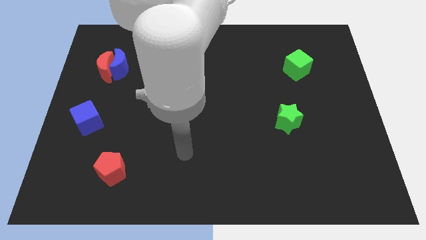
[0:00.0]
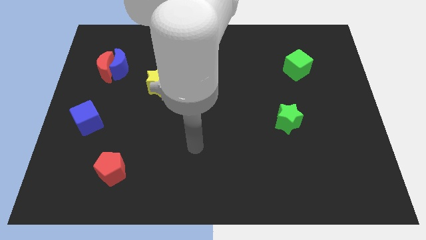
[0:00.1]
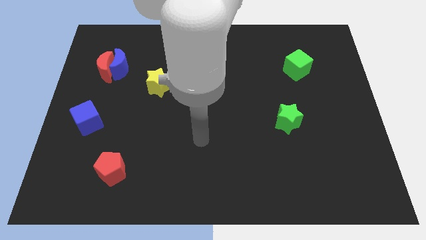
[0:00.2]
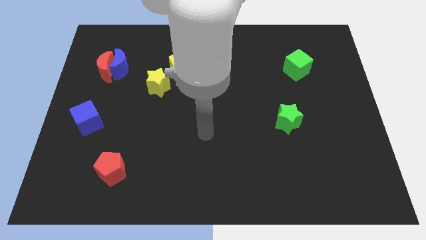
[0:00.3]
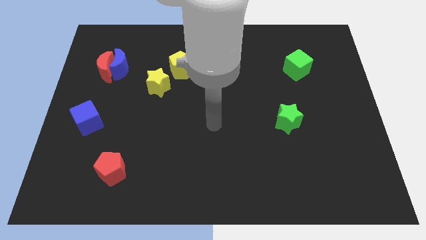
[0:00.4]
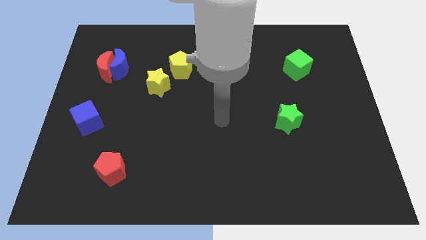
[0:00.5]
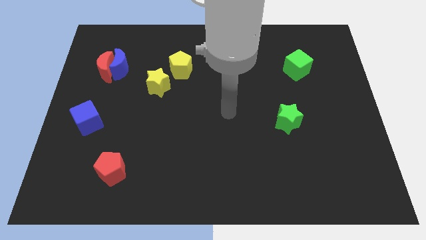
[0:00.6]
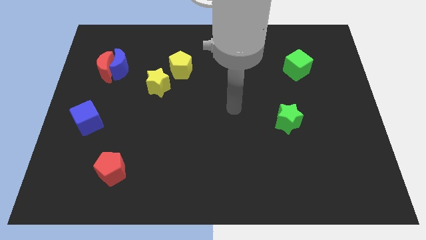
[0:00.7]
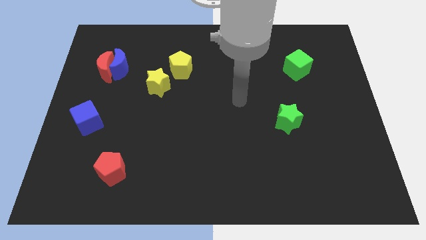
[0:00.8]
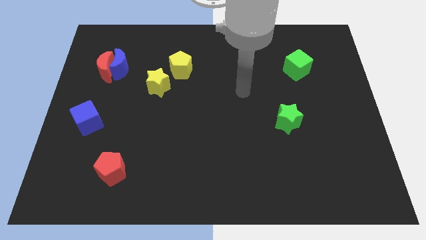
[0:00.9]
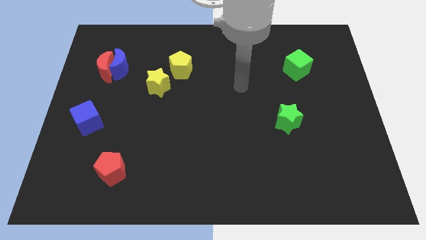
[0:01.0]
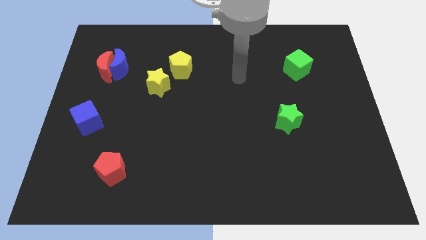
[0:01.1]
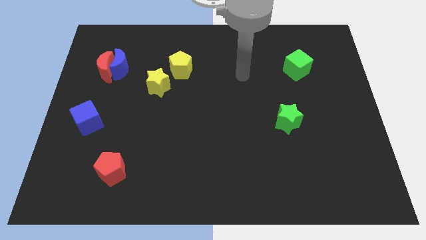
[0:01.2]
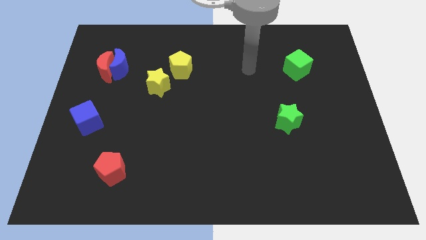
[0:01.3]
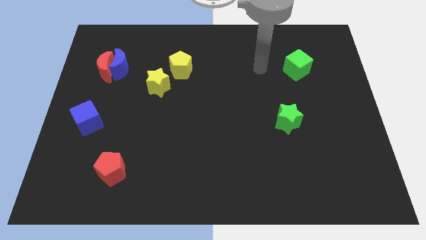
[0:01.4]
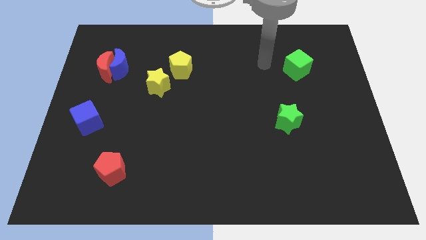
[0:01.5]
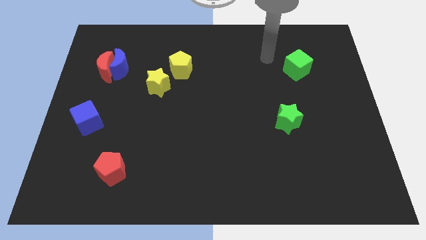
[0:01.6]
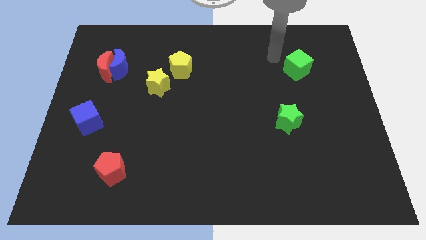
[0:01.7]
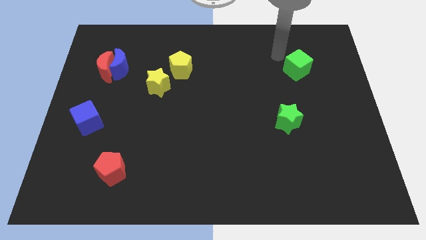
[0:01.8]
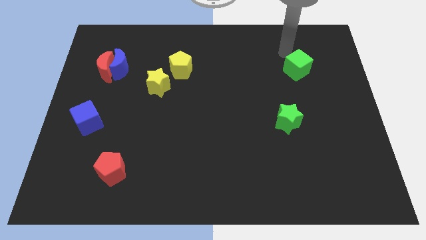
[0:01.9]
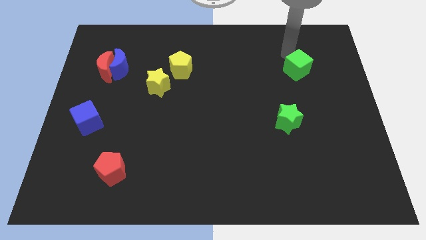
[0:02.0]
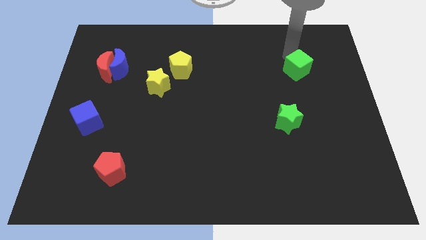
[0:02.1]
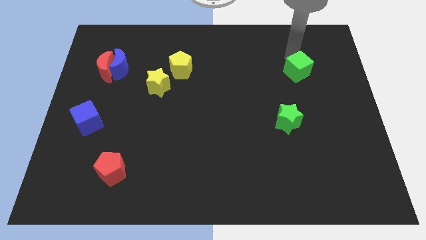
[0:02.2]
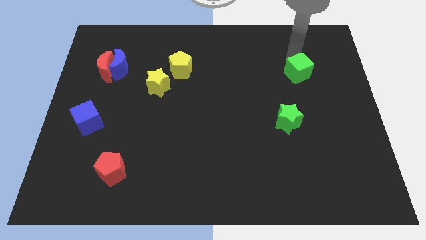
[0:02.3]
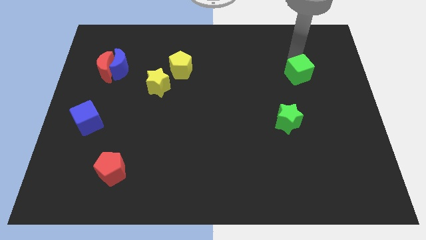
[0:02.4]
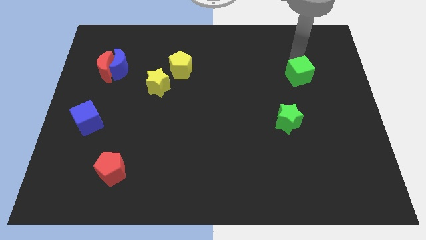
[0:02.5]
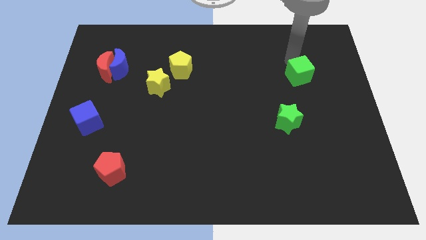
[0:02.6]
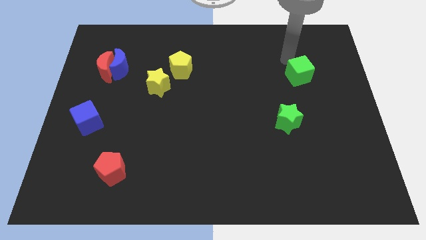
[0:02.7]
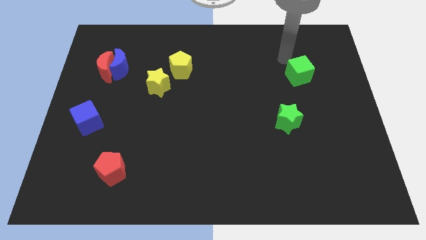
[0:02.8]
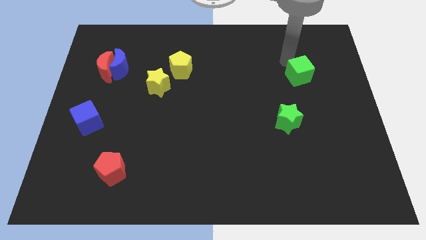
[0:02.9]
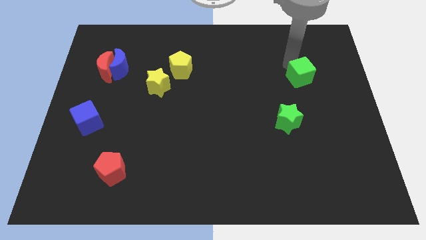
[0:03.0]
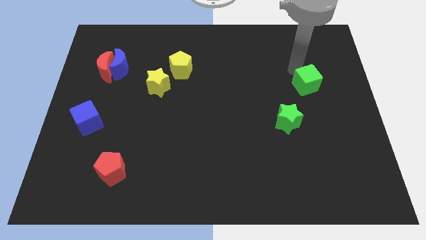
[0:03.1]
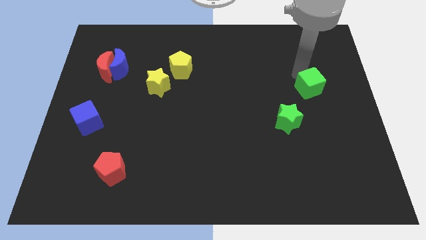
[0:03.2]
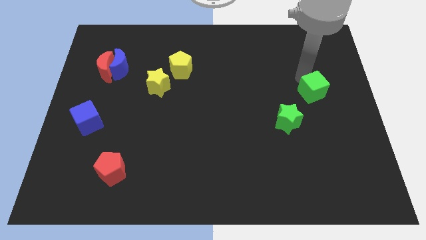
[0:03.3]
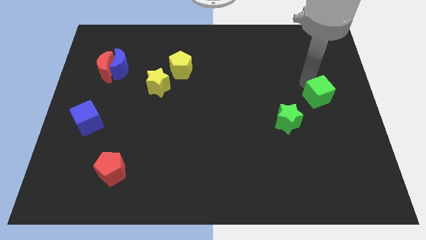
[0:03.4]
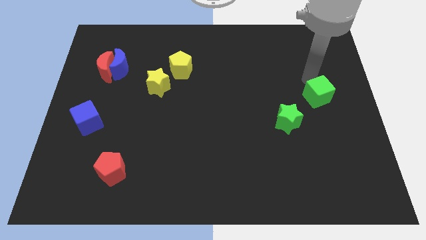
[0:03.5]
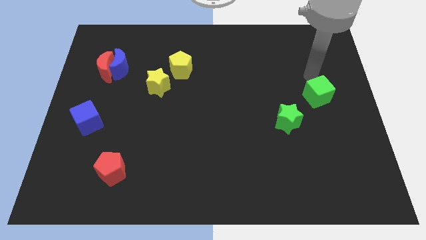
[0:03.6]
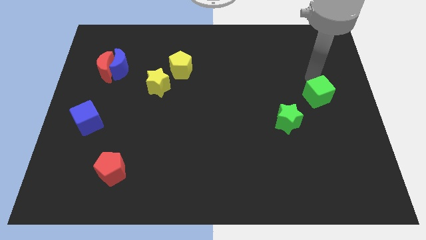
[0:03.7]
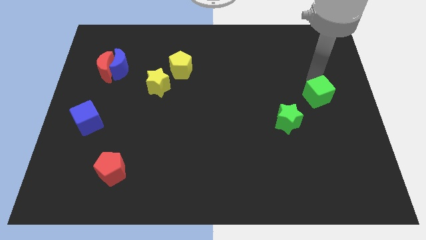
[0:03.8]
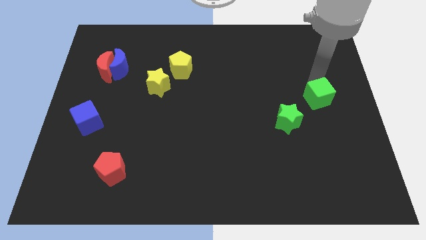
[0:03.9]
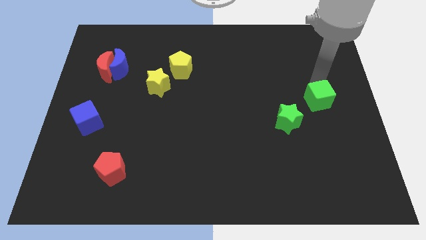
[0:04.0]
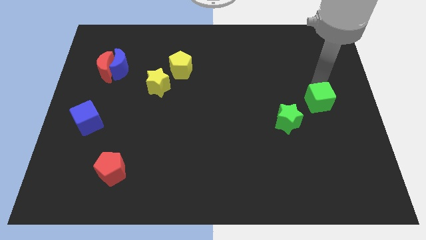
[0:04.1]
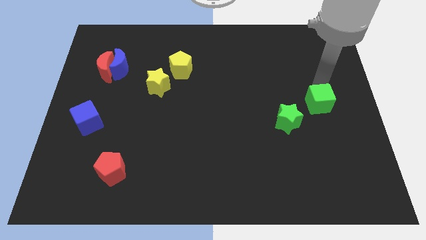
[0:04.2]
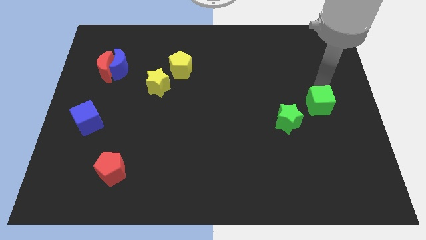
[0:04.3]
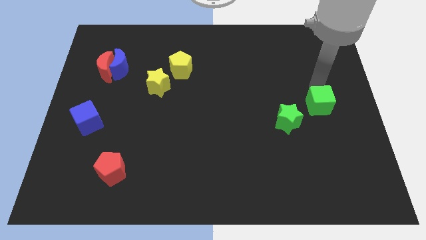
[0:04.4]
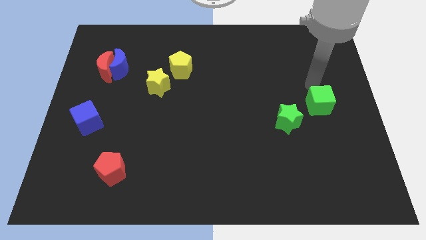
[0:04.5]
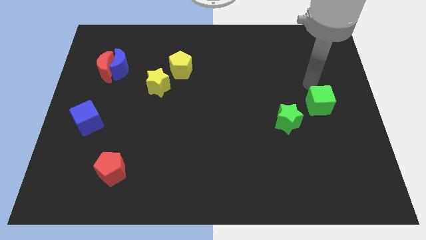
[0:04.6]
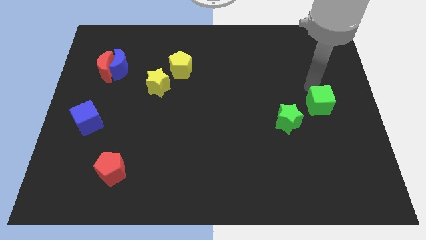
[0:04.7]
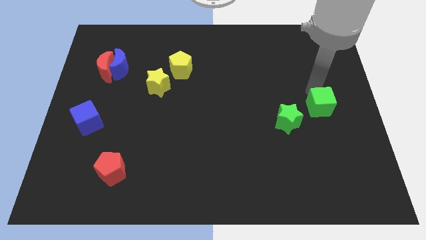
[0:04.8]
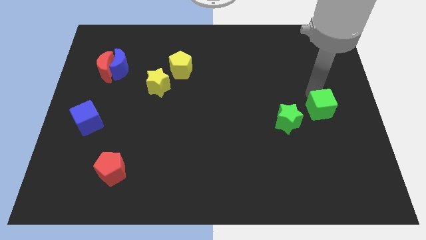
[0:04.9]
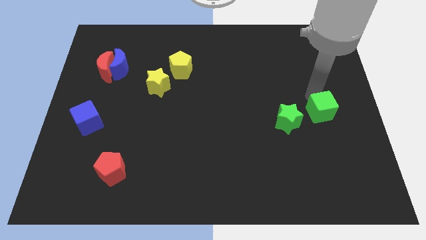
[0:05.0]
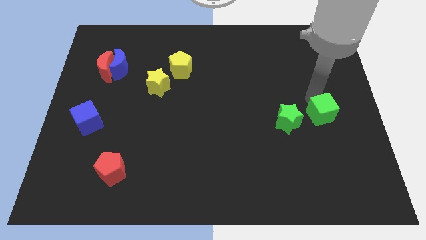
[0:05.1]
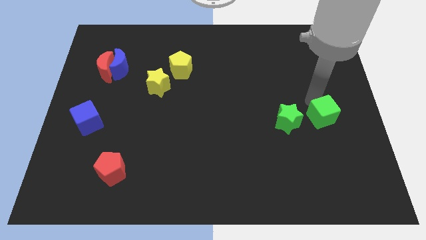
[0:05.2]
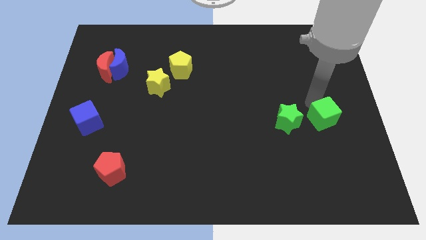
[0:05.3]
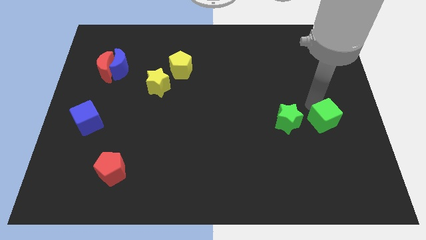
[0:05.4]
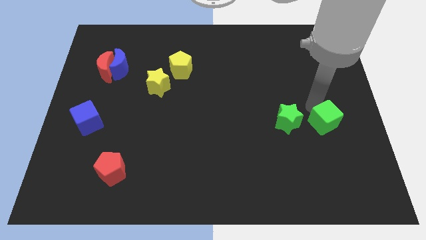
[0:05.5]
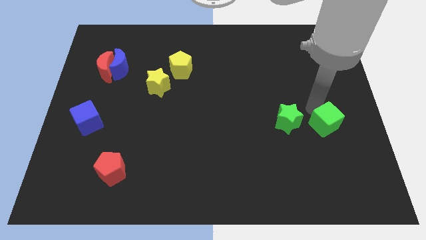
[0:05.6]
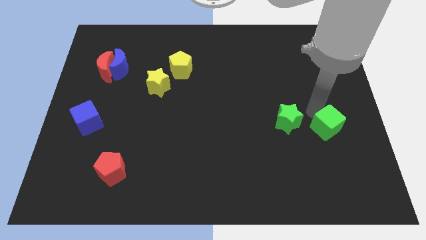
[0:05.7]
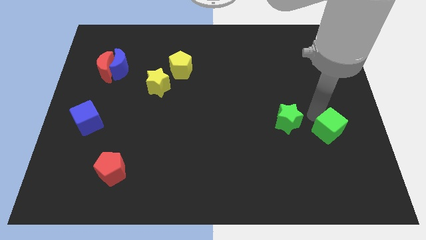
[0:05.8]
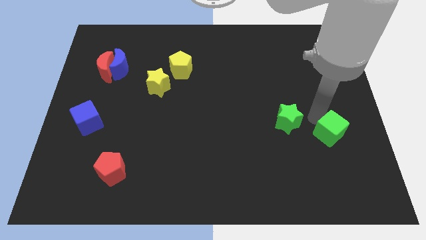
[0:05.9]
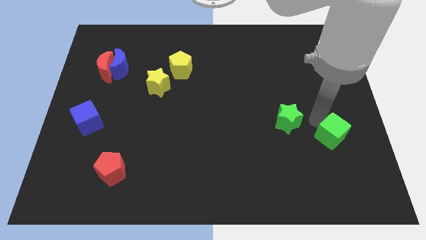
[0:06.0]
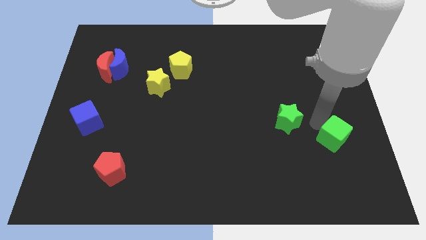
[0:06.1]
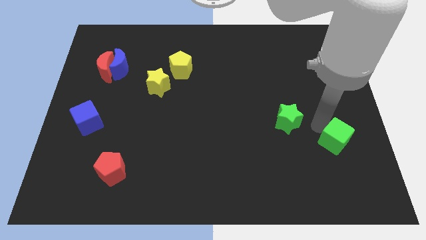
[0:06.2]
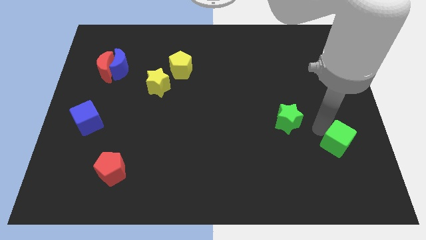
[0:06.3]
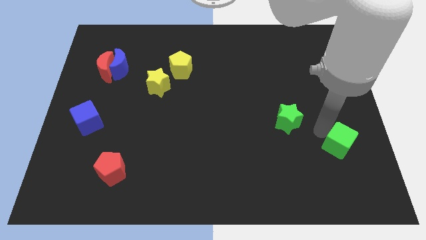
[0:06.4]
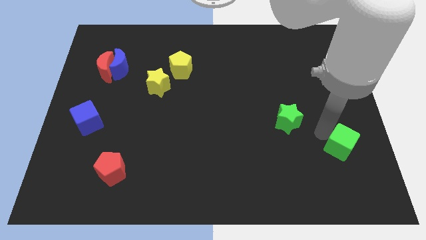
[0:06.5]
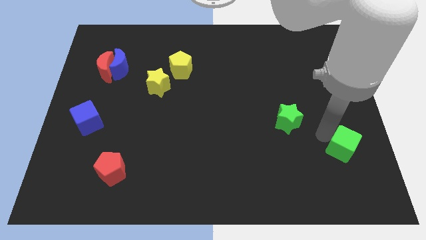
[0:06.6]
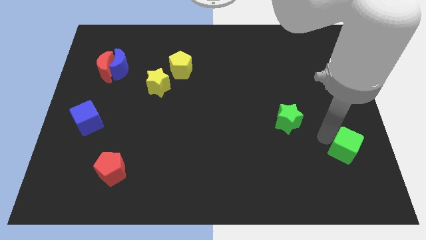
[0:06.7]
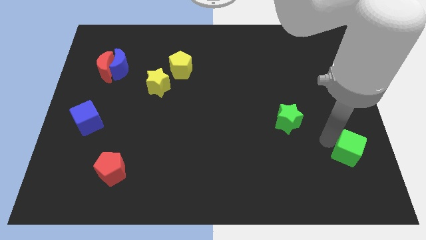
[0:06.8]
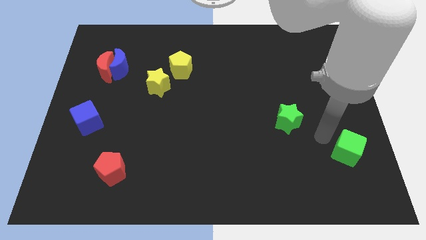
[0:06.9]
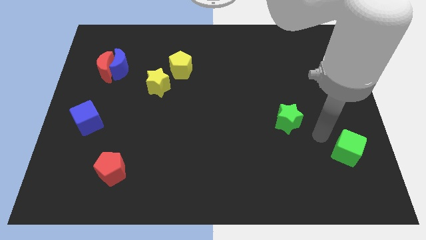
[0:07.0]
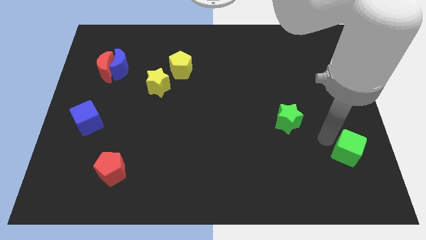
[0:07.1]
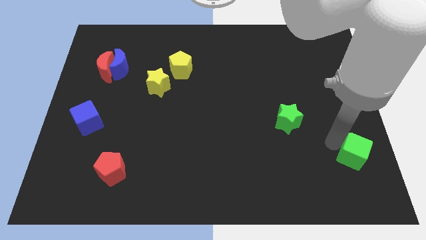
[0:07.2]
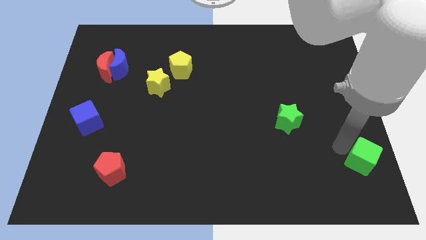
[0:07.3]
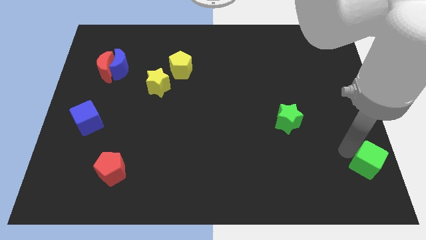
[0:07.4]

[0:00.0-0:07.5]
put the green cube to the bottom right of the board
